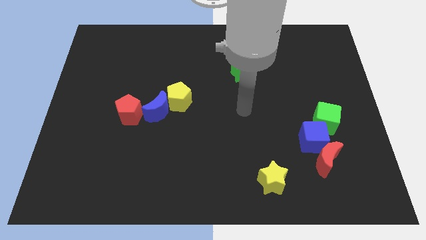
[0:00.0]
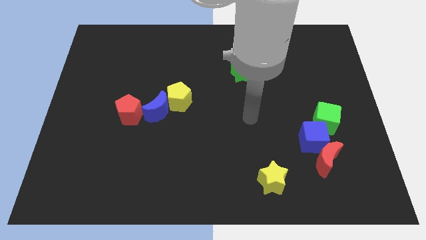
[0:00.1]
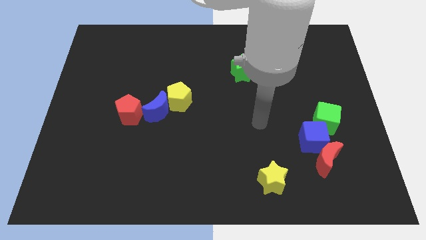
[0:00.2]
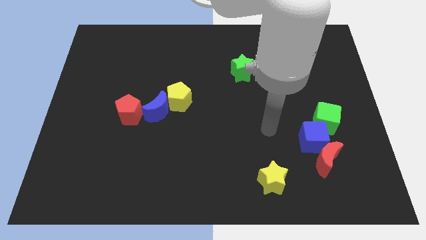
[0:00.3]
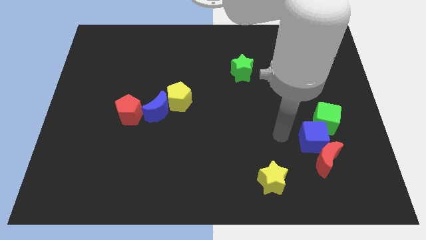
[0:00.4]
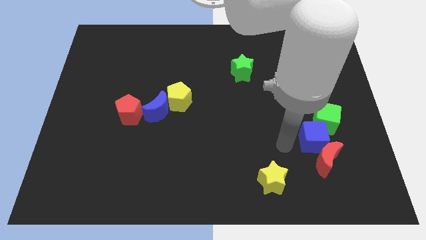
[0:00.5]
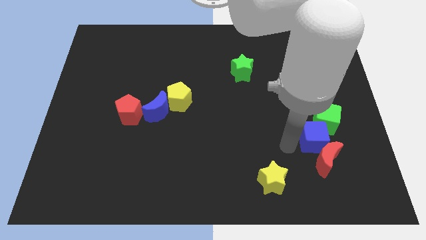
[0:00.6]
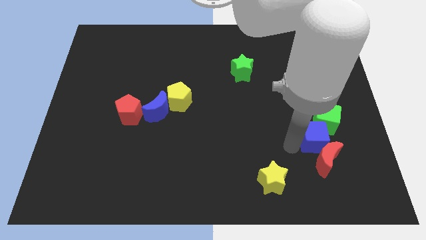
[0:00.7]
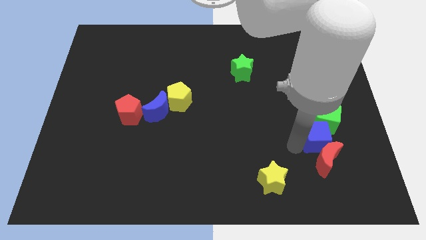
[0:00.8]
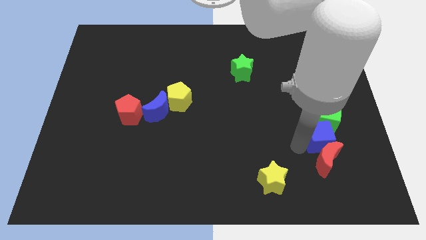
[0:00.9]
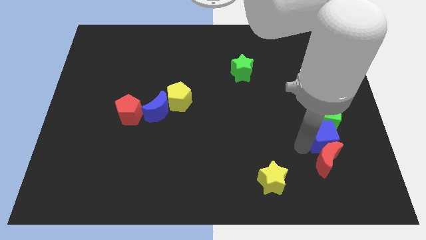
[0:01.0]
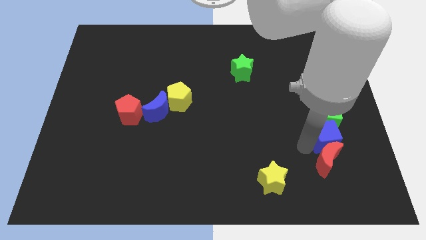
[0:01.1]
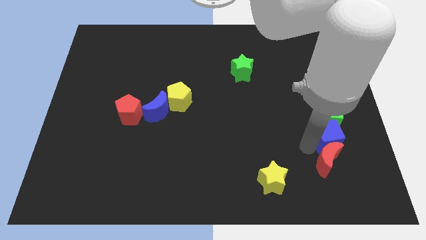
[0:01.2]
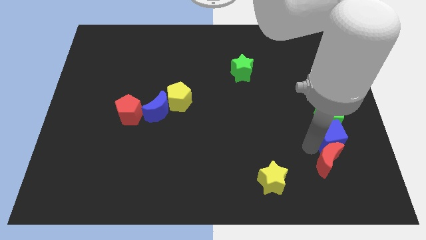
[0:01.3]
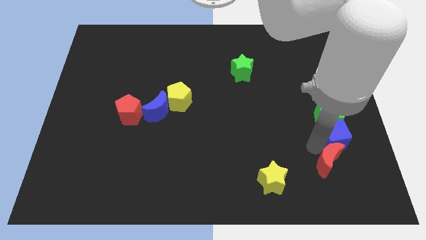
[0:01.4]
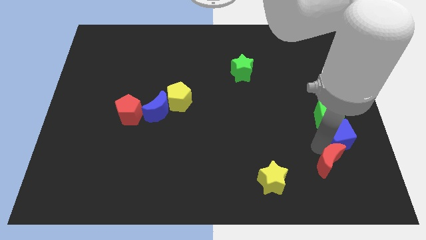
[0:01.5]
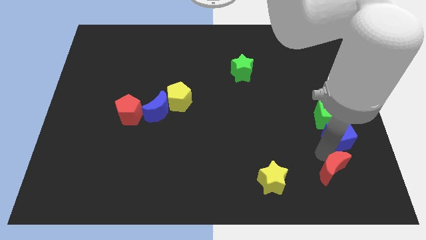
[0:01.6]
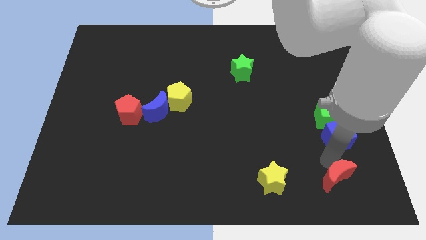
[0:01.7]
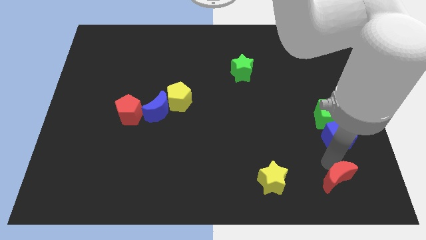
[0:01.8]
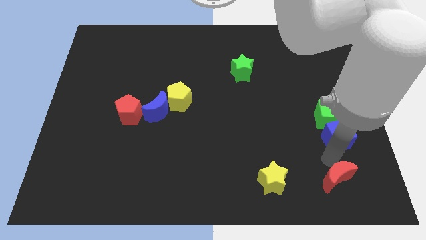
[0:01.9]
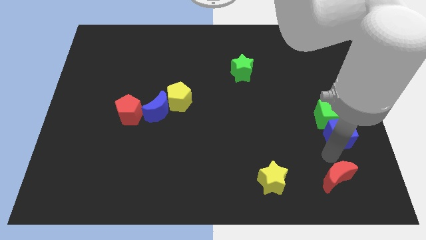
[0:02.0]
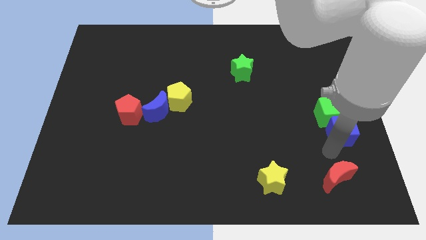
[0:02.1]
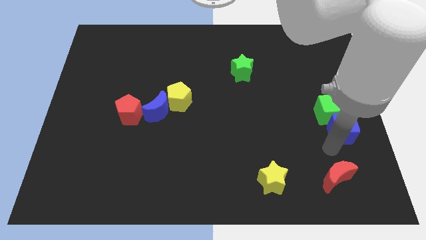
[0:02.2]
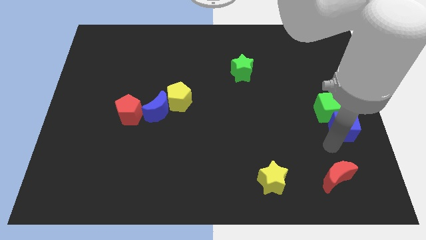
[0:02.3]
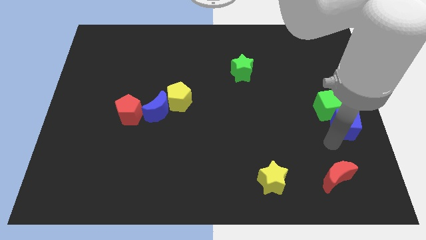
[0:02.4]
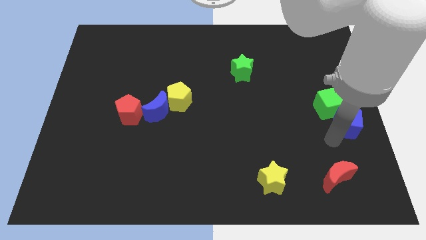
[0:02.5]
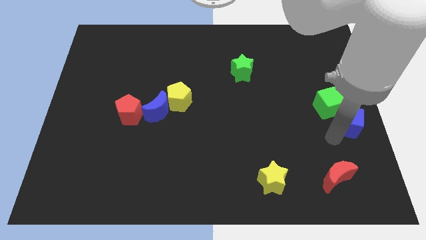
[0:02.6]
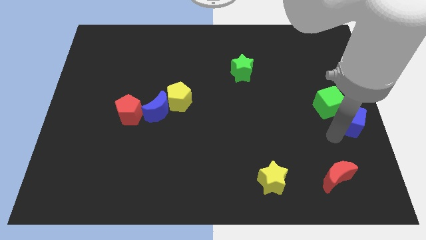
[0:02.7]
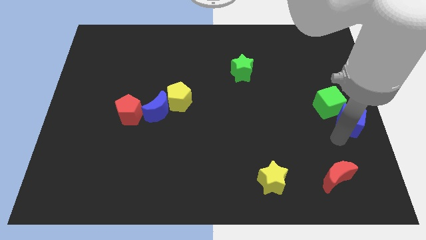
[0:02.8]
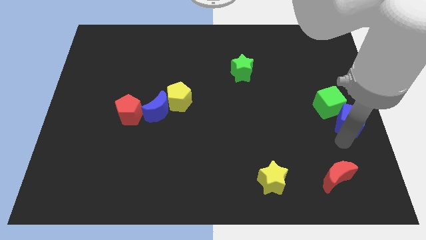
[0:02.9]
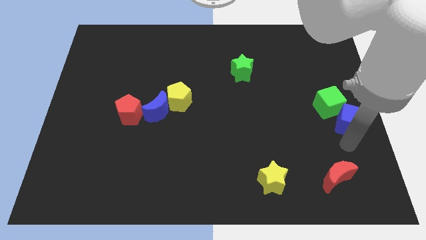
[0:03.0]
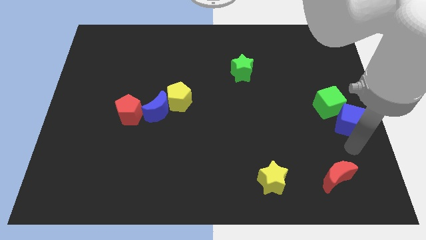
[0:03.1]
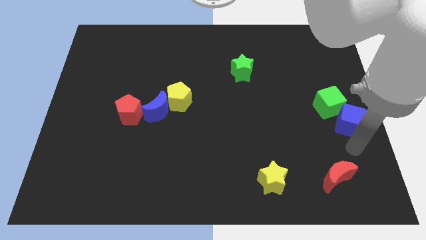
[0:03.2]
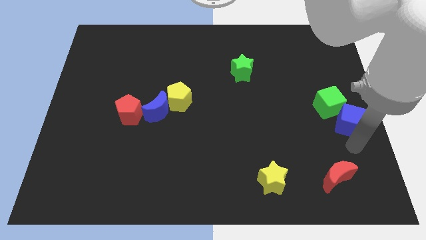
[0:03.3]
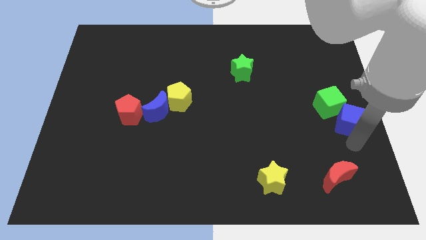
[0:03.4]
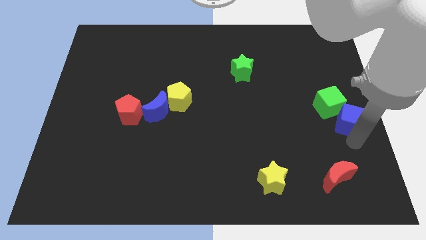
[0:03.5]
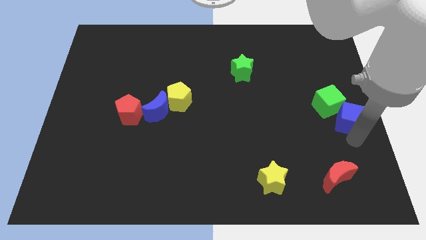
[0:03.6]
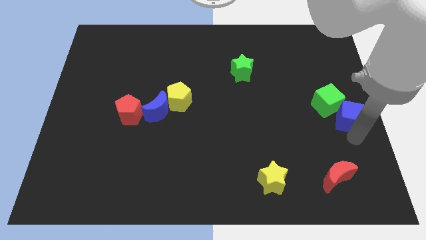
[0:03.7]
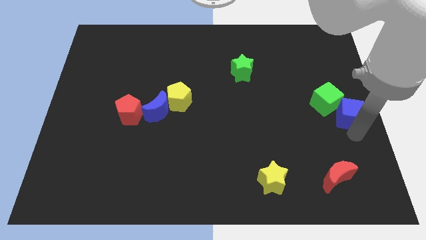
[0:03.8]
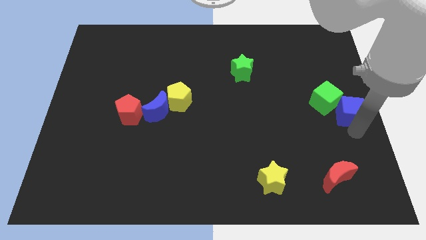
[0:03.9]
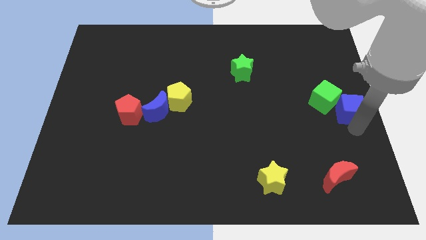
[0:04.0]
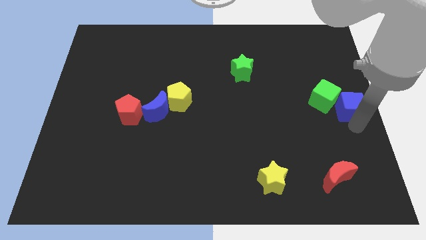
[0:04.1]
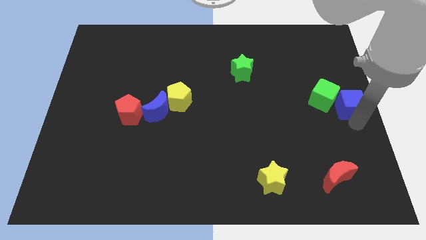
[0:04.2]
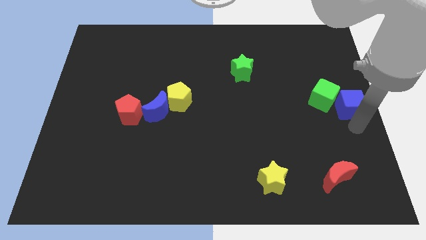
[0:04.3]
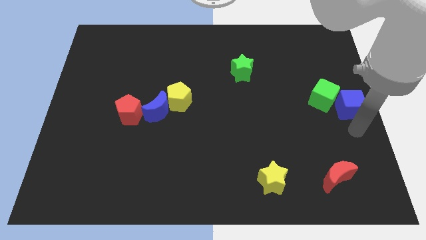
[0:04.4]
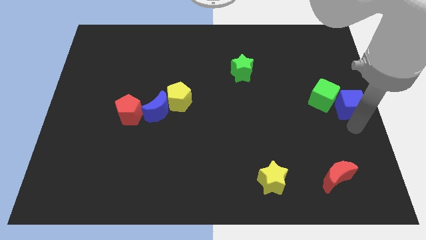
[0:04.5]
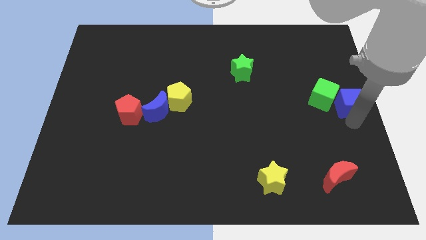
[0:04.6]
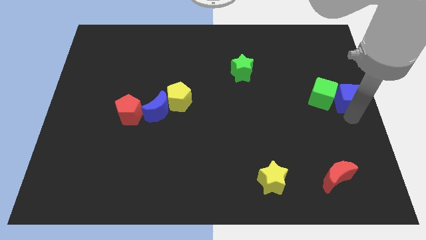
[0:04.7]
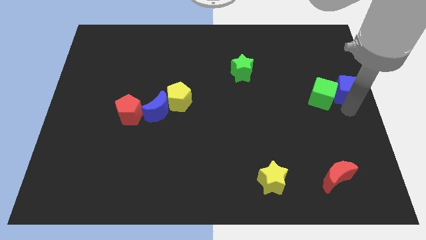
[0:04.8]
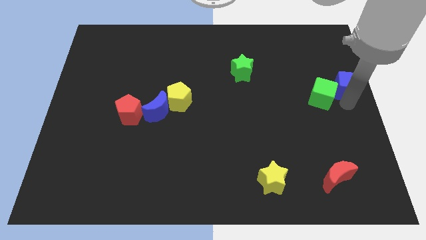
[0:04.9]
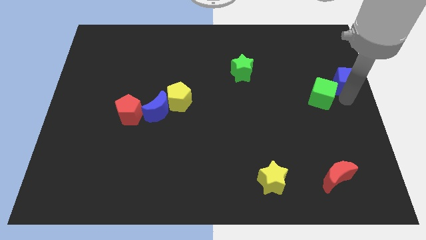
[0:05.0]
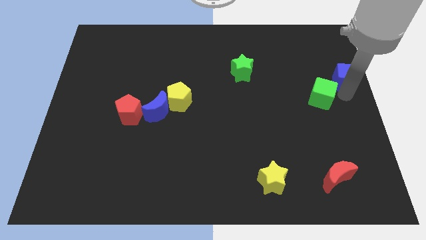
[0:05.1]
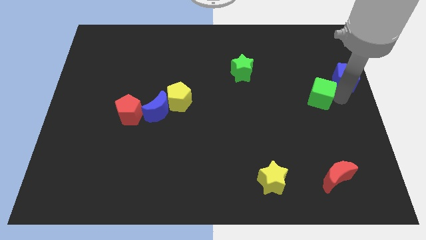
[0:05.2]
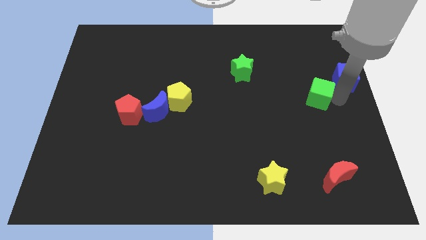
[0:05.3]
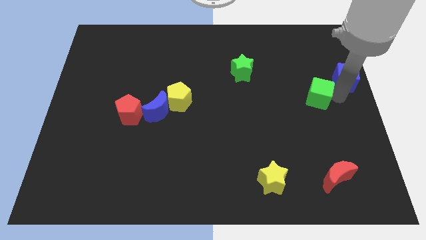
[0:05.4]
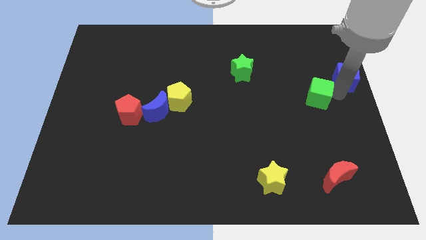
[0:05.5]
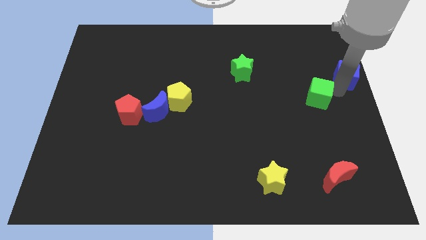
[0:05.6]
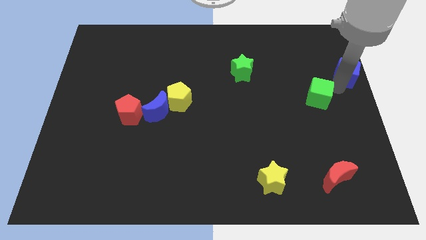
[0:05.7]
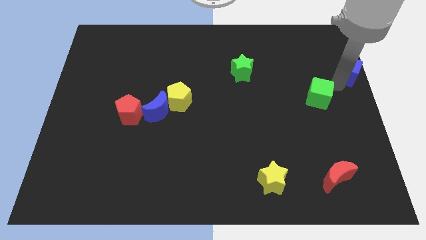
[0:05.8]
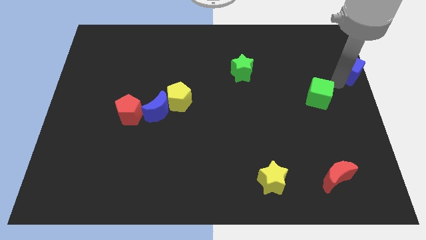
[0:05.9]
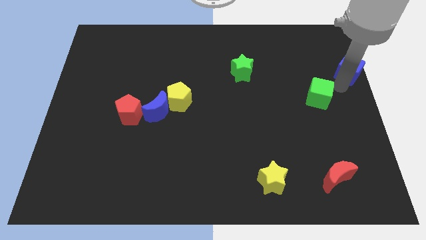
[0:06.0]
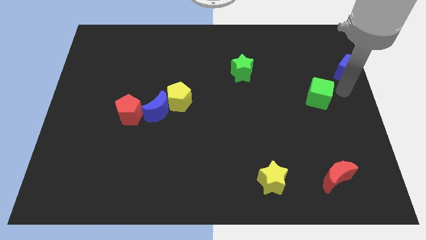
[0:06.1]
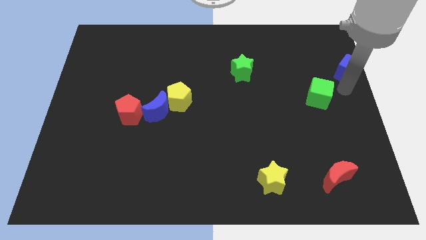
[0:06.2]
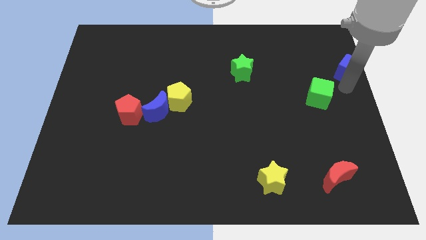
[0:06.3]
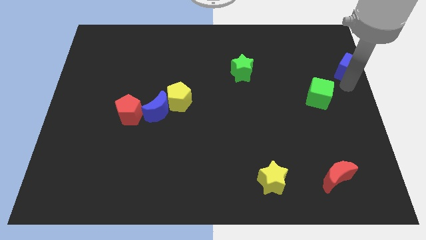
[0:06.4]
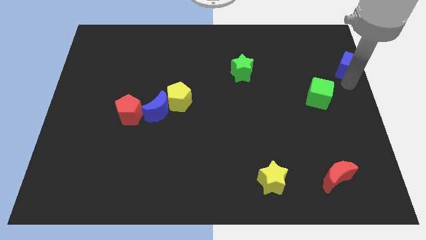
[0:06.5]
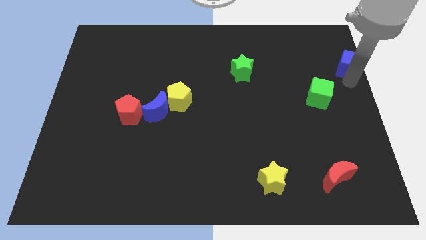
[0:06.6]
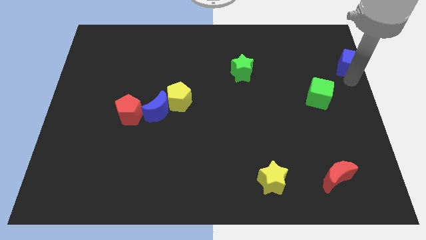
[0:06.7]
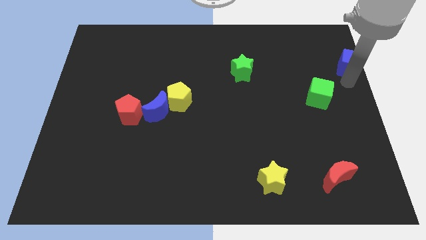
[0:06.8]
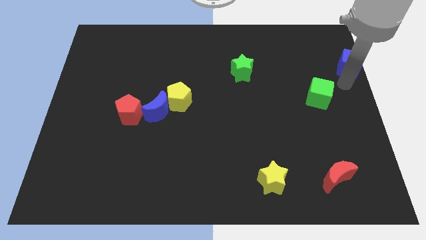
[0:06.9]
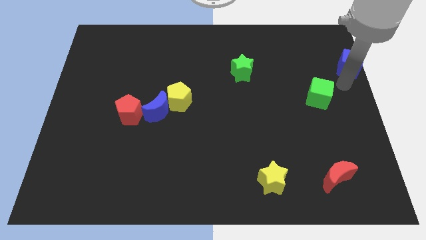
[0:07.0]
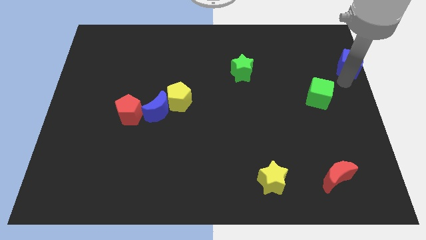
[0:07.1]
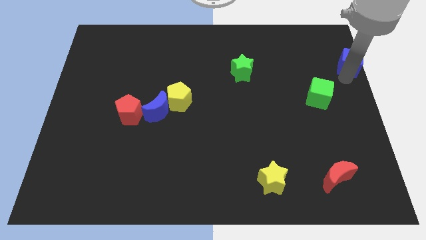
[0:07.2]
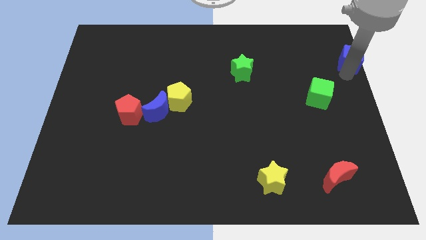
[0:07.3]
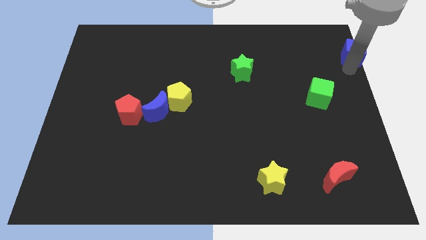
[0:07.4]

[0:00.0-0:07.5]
slide the blue cube to the top right corner
